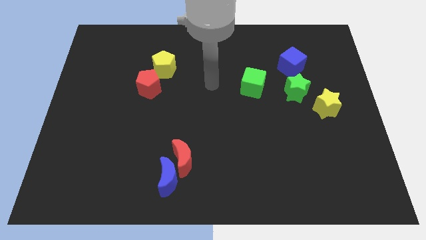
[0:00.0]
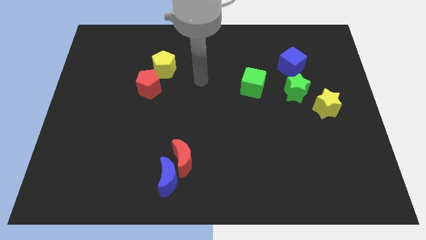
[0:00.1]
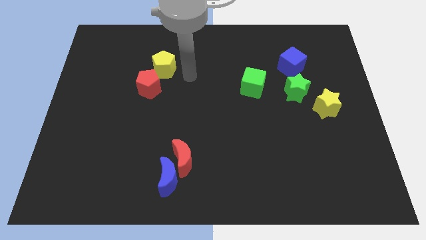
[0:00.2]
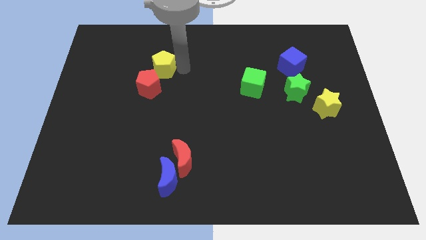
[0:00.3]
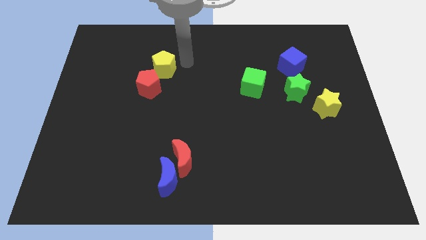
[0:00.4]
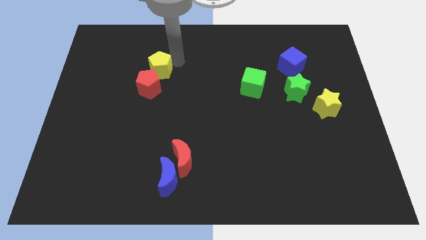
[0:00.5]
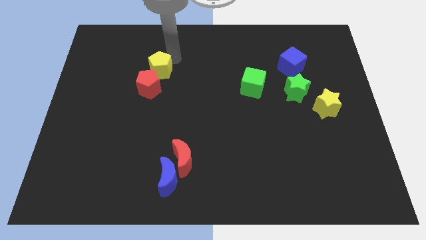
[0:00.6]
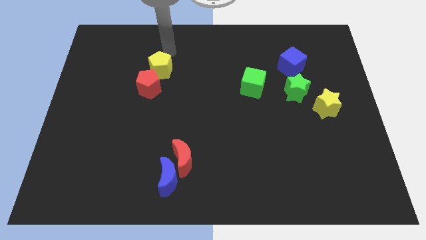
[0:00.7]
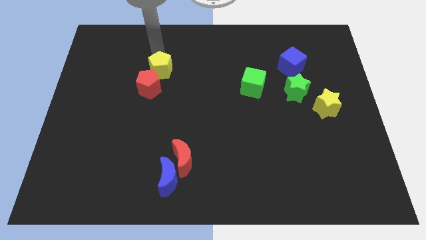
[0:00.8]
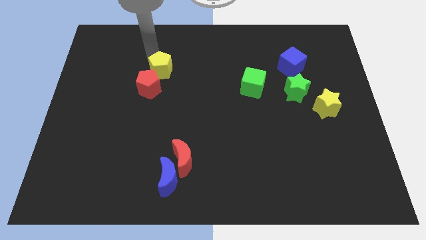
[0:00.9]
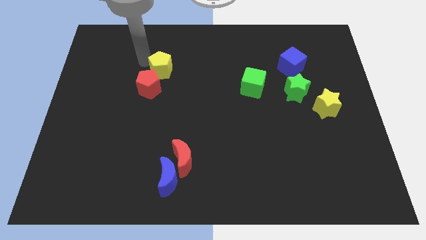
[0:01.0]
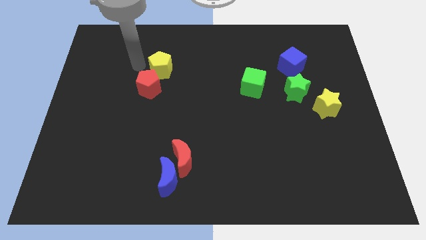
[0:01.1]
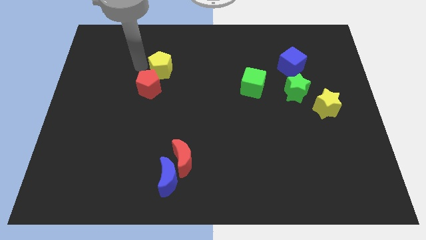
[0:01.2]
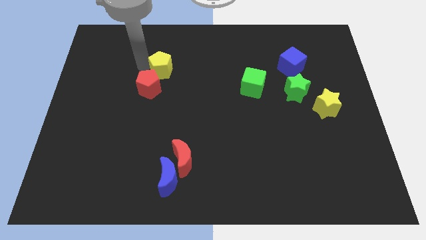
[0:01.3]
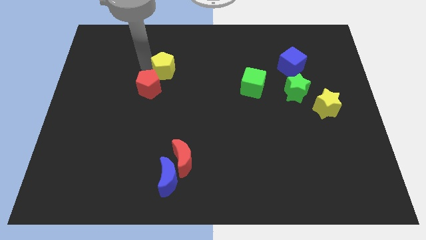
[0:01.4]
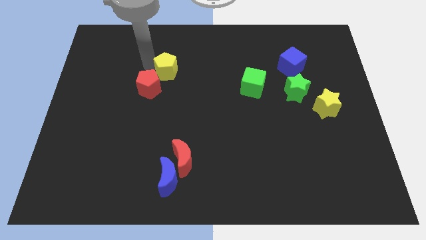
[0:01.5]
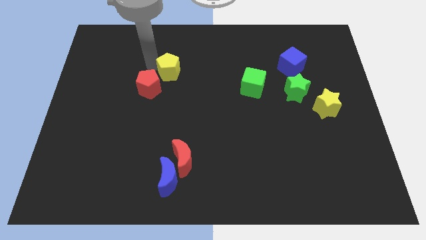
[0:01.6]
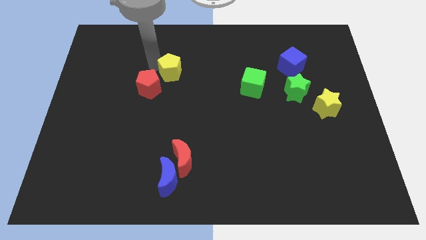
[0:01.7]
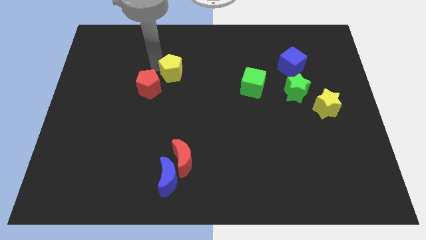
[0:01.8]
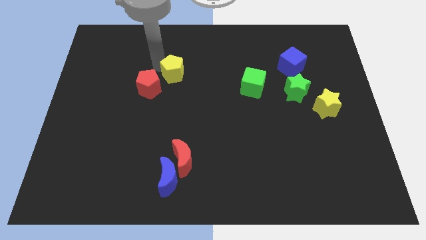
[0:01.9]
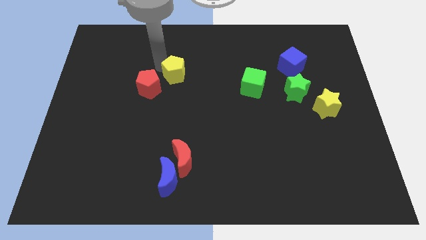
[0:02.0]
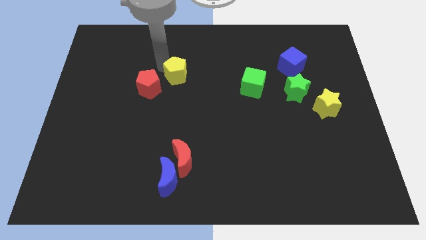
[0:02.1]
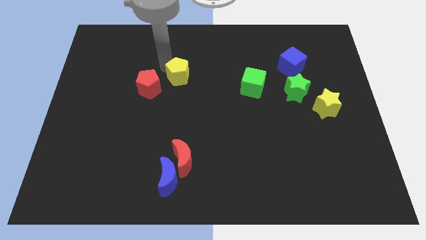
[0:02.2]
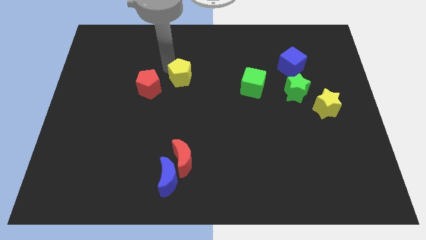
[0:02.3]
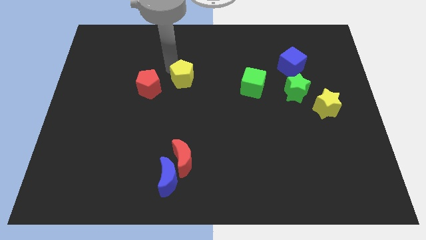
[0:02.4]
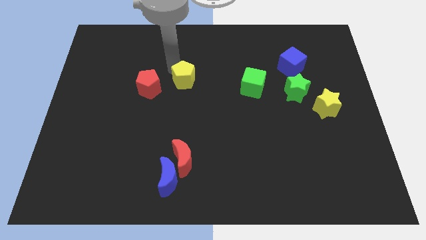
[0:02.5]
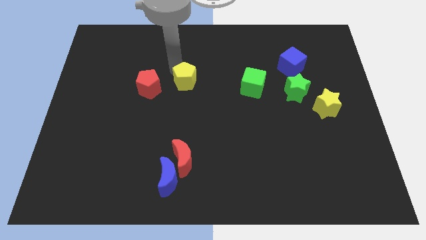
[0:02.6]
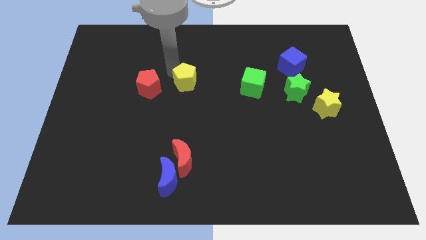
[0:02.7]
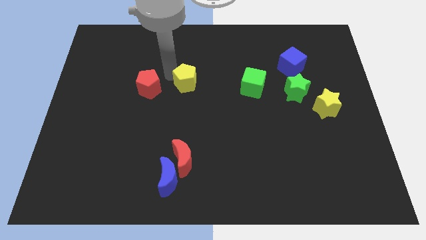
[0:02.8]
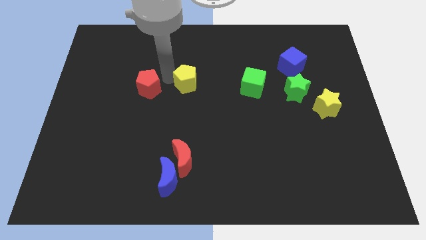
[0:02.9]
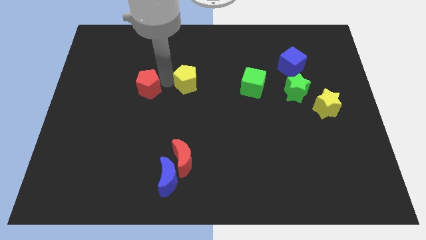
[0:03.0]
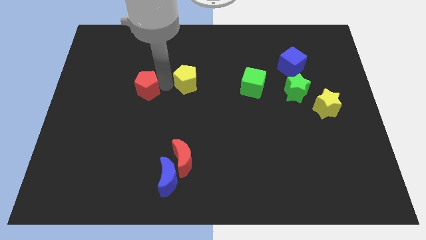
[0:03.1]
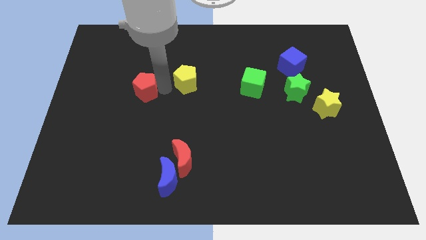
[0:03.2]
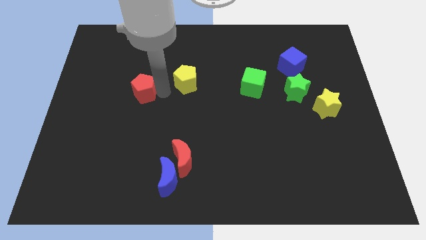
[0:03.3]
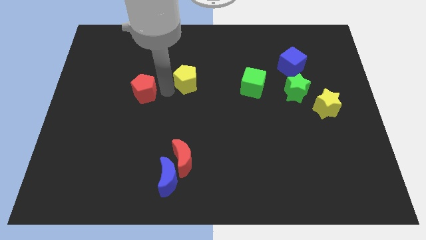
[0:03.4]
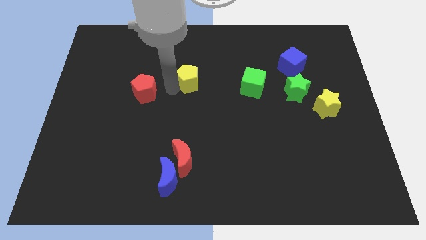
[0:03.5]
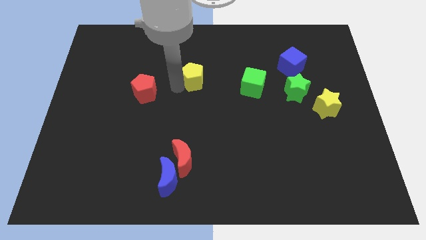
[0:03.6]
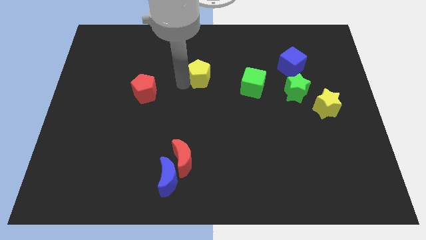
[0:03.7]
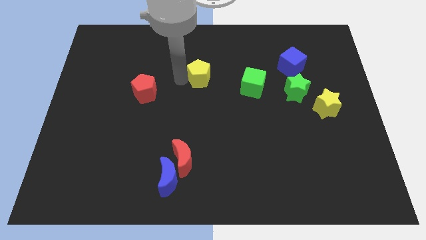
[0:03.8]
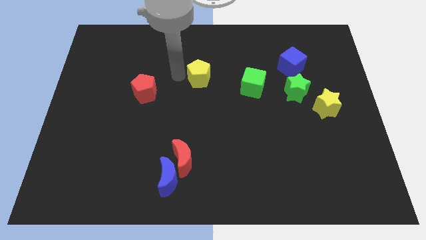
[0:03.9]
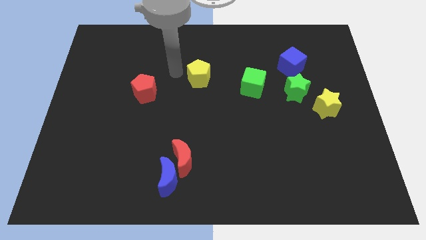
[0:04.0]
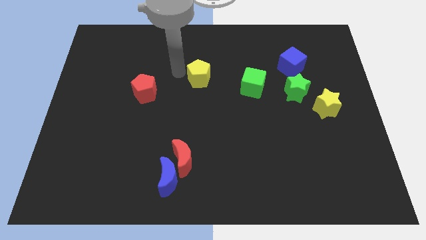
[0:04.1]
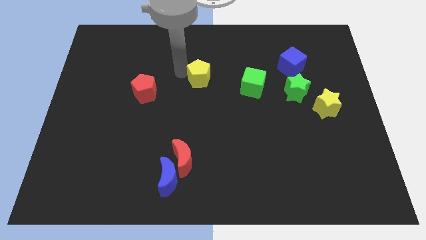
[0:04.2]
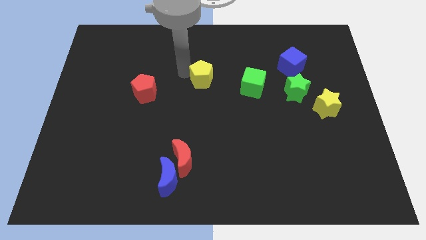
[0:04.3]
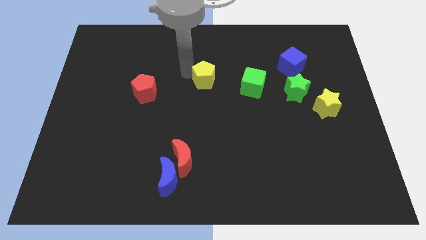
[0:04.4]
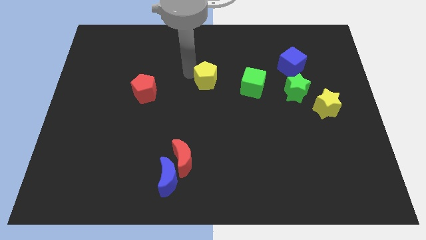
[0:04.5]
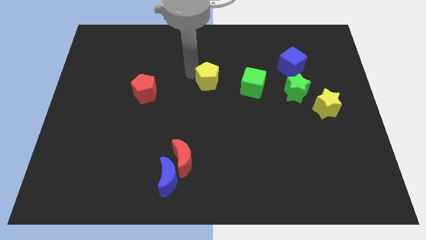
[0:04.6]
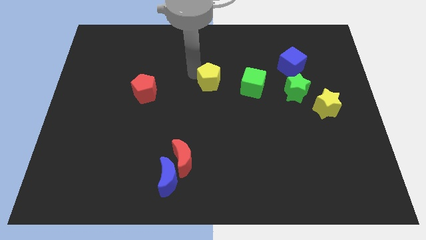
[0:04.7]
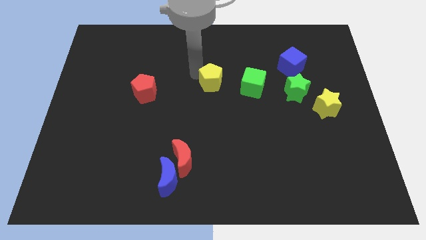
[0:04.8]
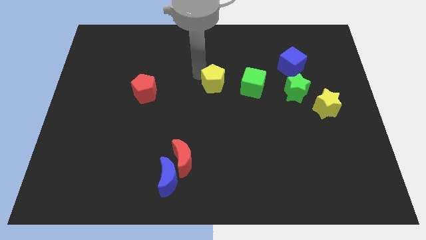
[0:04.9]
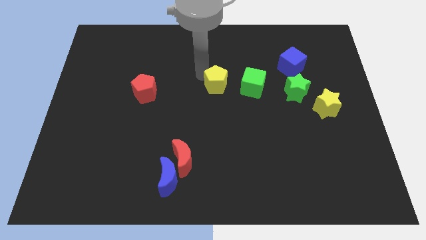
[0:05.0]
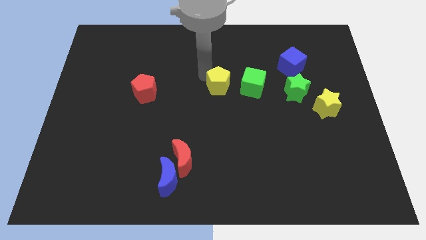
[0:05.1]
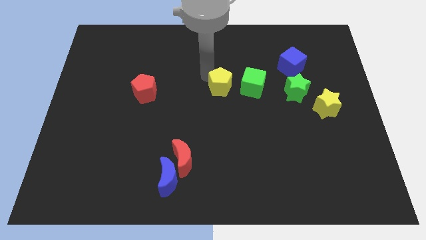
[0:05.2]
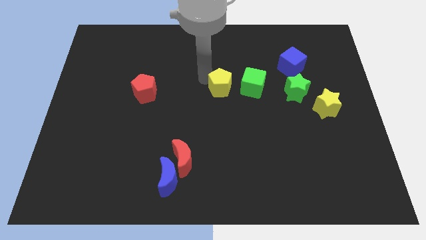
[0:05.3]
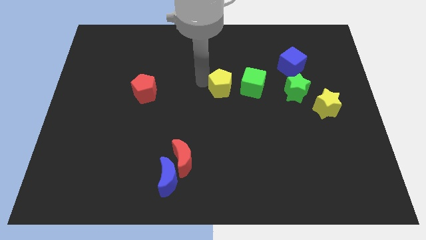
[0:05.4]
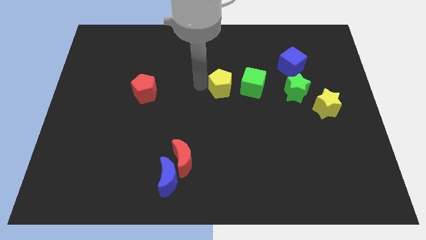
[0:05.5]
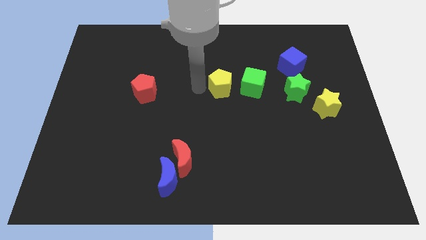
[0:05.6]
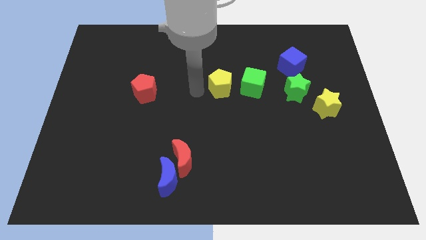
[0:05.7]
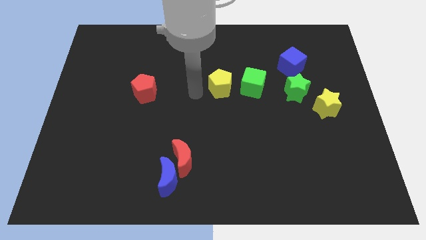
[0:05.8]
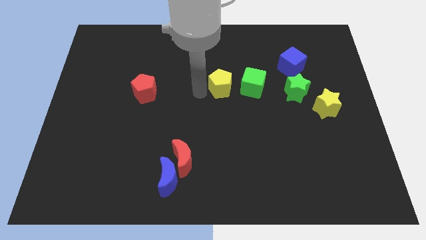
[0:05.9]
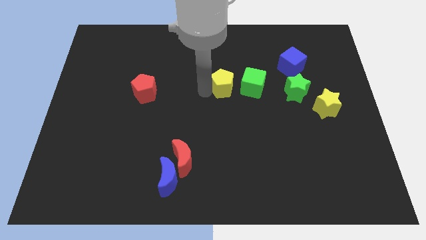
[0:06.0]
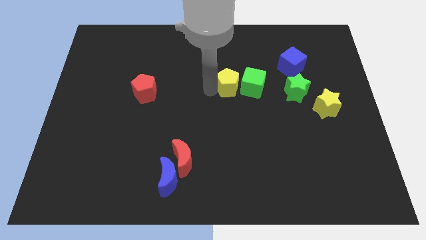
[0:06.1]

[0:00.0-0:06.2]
put the yellow pentagon close to the green cube

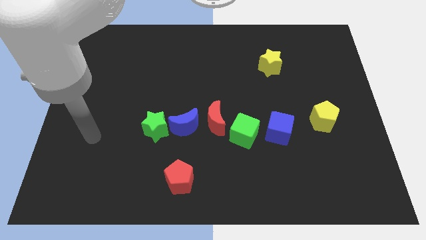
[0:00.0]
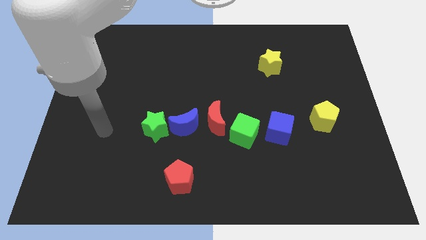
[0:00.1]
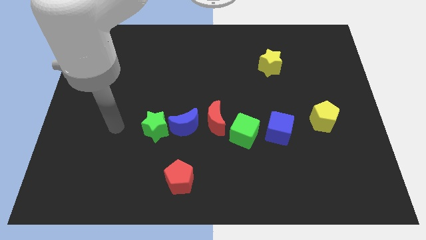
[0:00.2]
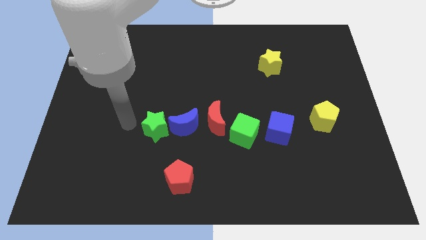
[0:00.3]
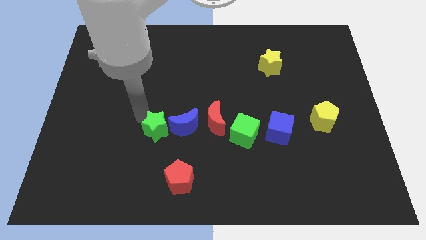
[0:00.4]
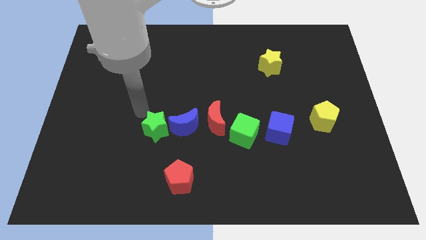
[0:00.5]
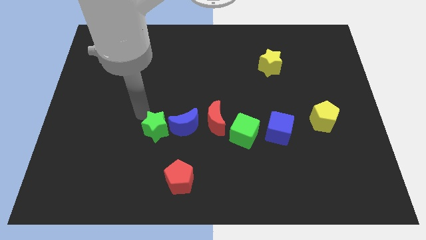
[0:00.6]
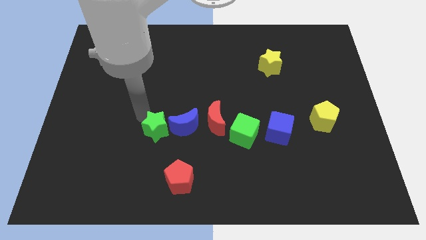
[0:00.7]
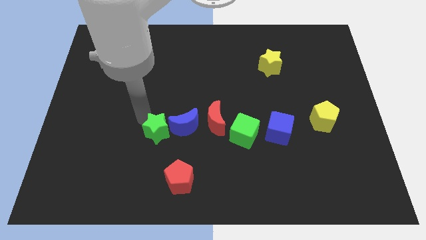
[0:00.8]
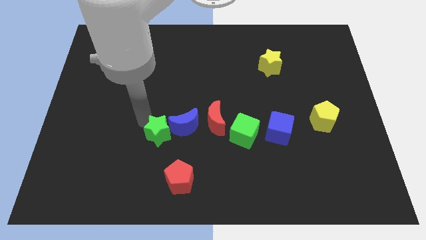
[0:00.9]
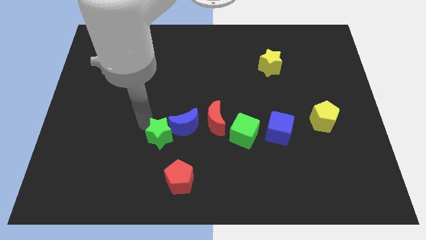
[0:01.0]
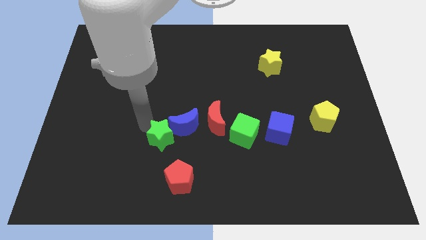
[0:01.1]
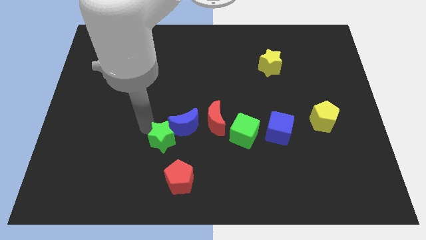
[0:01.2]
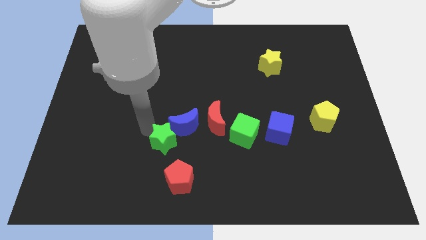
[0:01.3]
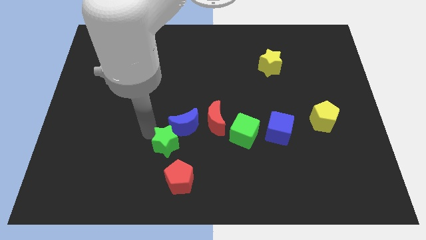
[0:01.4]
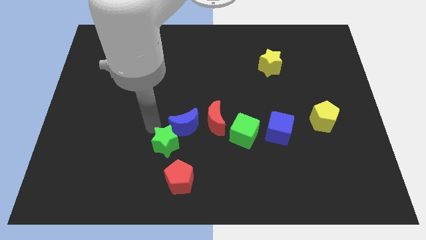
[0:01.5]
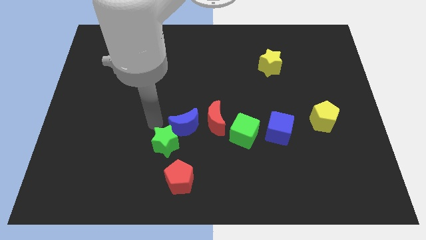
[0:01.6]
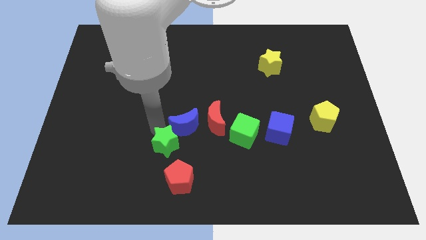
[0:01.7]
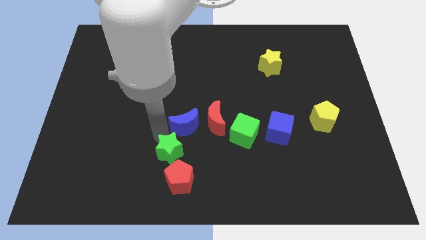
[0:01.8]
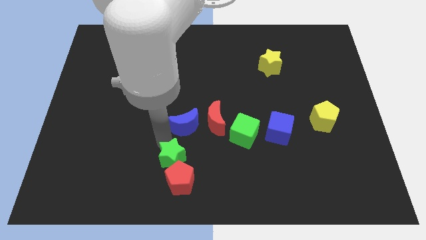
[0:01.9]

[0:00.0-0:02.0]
put the green star to the red pentagon
